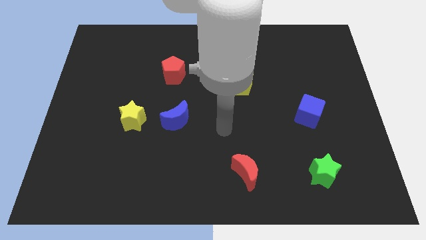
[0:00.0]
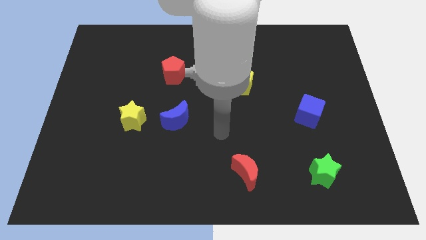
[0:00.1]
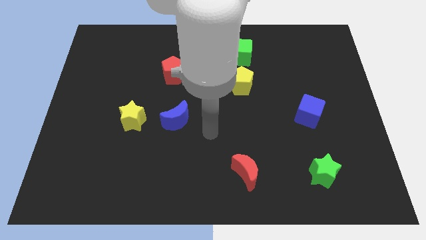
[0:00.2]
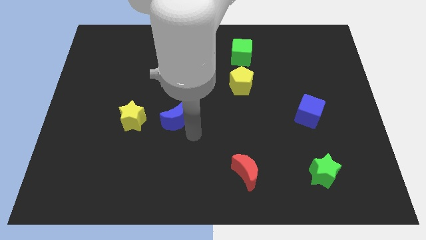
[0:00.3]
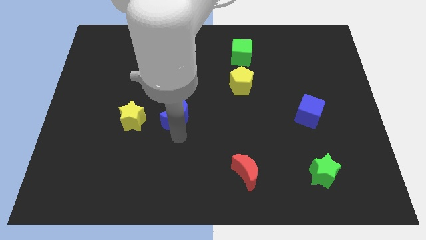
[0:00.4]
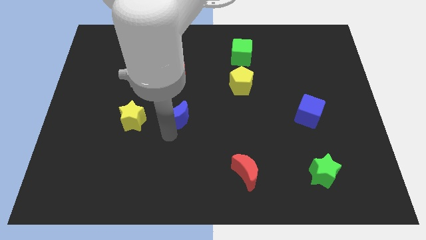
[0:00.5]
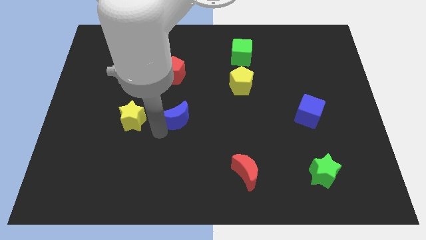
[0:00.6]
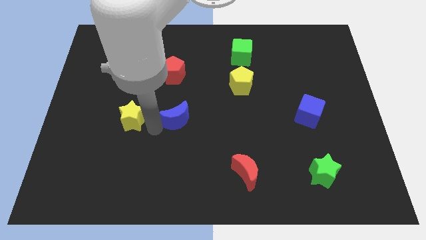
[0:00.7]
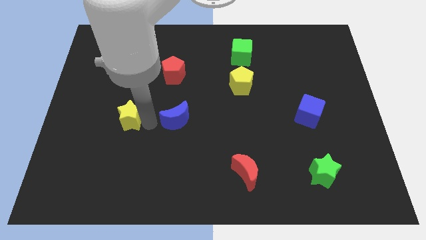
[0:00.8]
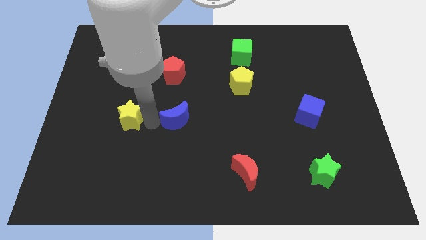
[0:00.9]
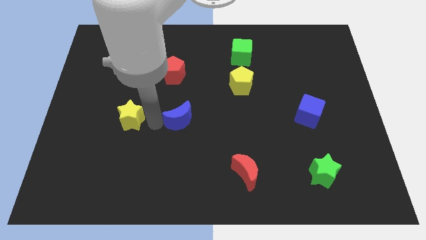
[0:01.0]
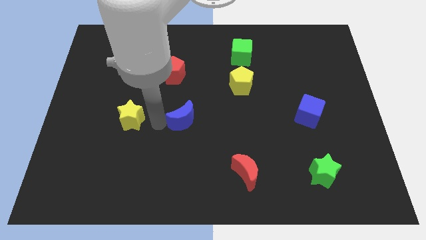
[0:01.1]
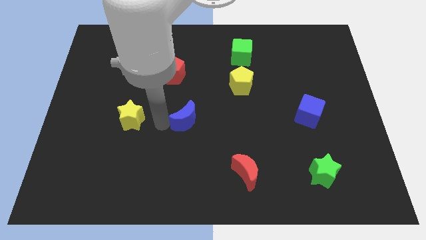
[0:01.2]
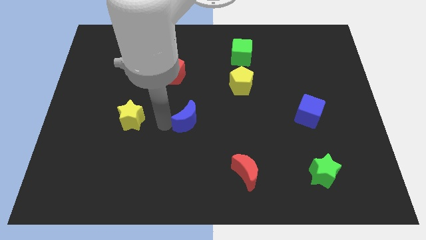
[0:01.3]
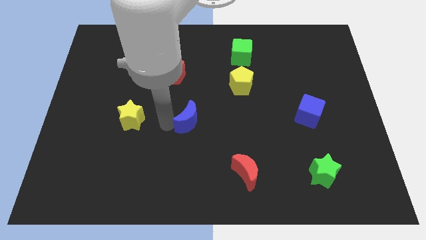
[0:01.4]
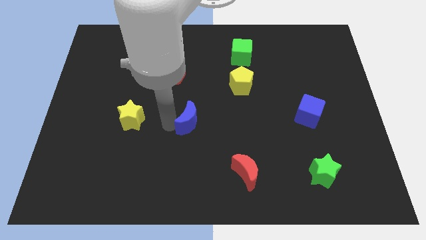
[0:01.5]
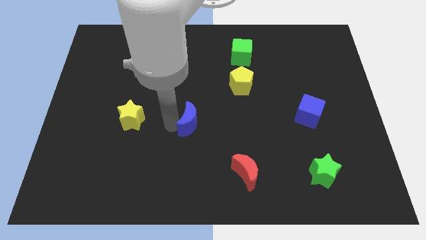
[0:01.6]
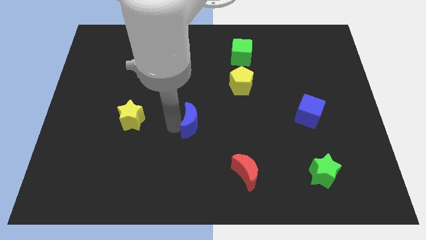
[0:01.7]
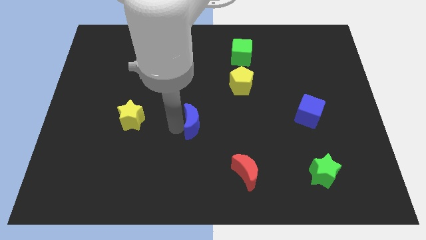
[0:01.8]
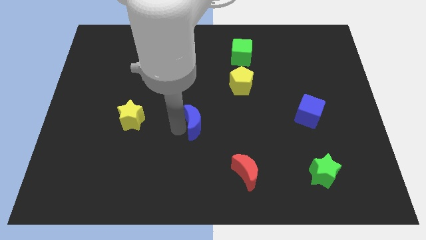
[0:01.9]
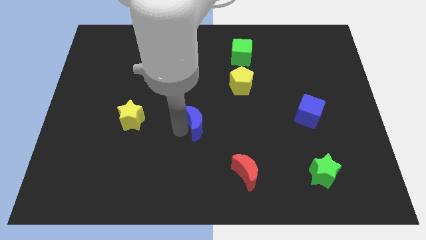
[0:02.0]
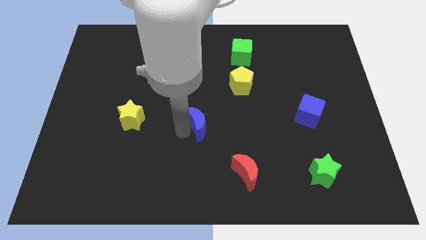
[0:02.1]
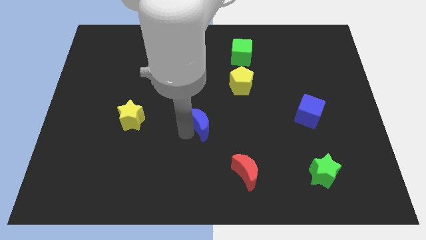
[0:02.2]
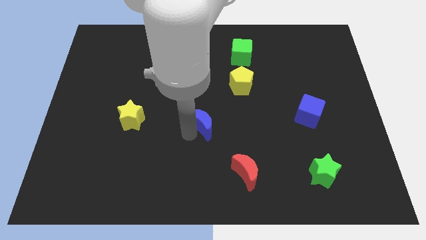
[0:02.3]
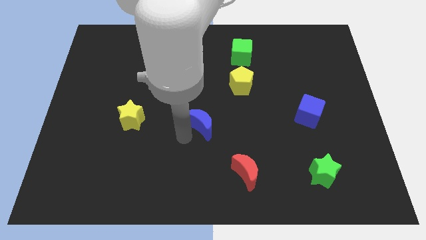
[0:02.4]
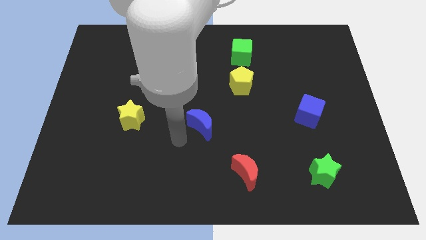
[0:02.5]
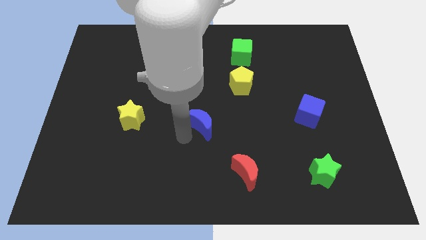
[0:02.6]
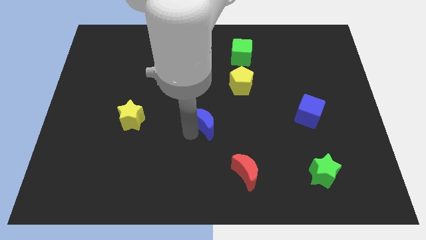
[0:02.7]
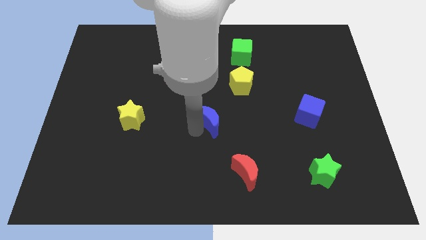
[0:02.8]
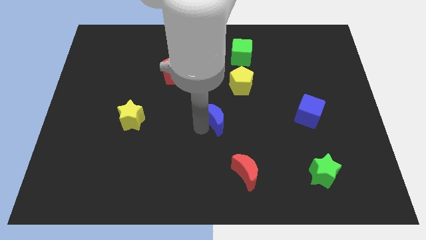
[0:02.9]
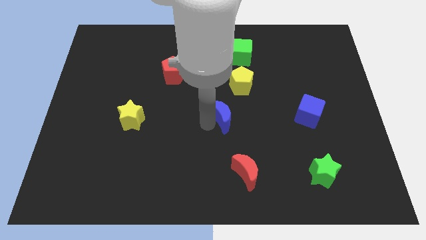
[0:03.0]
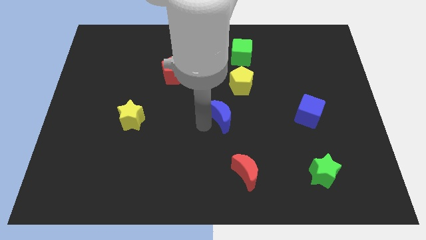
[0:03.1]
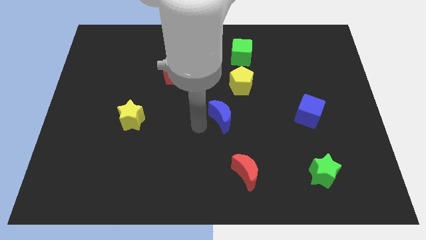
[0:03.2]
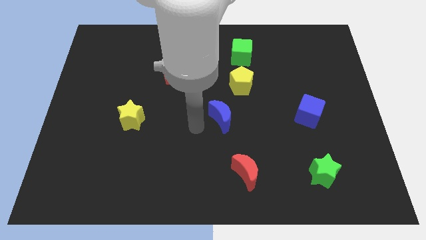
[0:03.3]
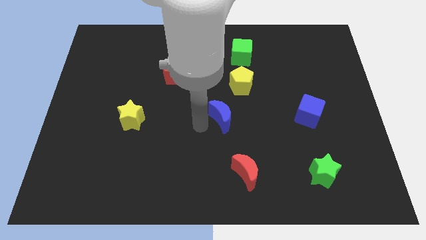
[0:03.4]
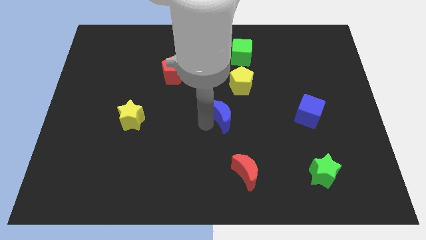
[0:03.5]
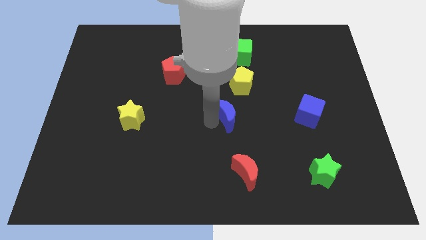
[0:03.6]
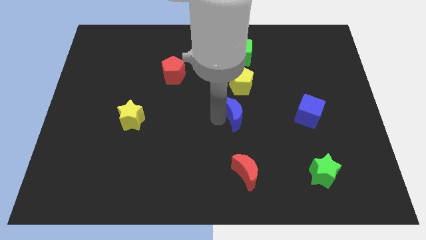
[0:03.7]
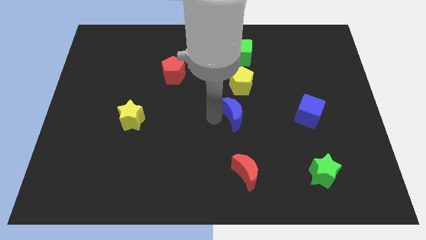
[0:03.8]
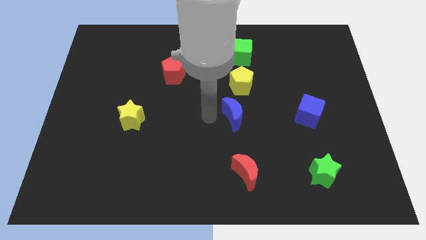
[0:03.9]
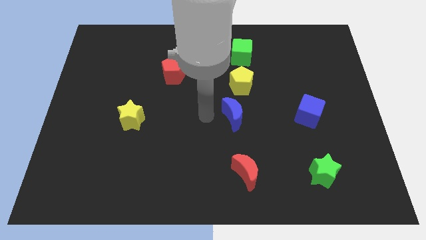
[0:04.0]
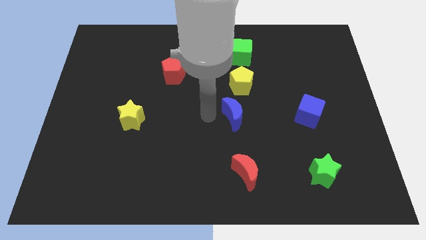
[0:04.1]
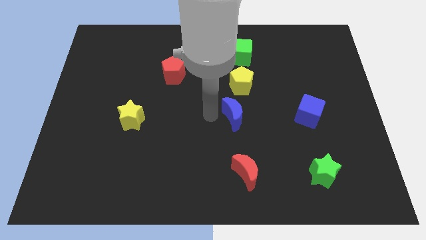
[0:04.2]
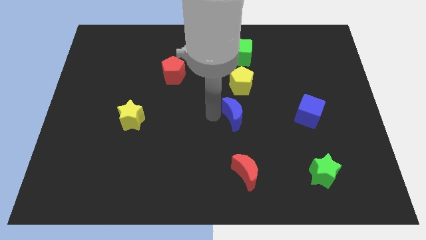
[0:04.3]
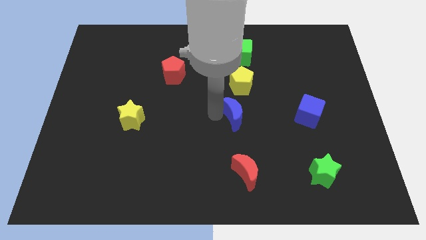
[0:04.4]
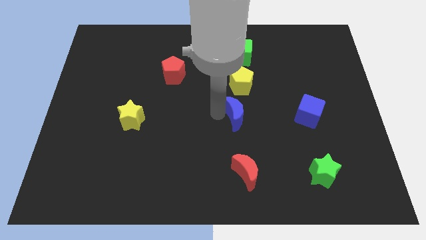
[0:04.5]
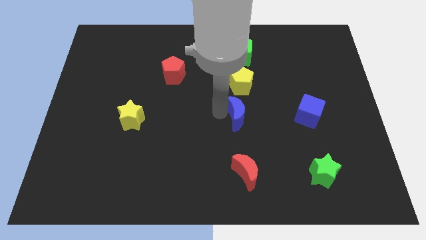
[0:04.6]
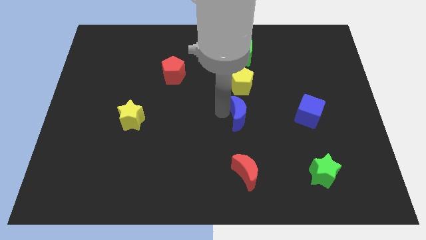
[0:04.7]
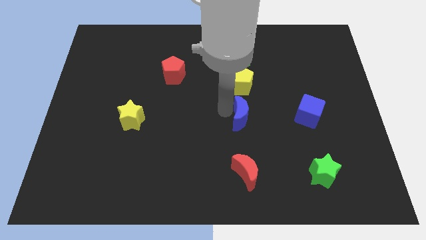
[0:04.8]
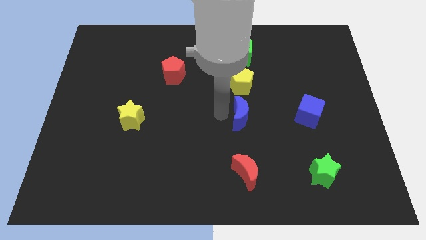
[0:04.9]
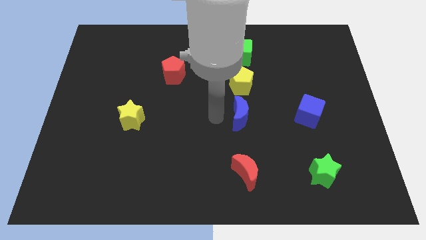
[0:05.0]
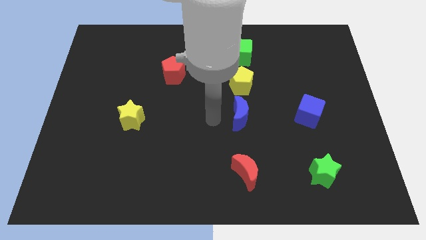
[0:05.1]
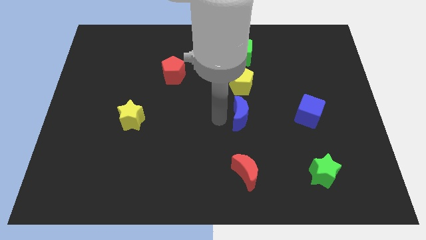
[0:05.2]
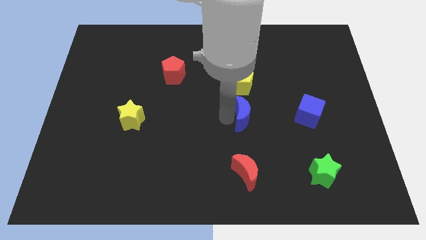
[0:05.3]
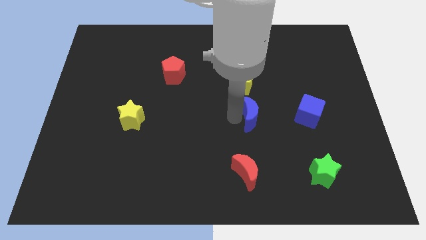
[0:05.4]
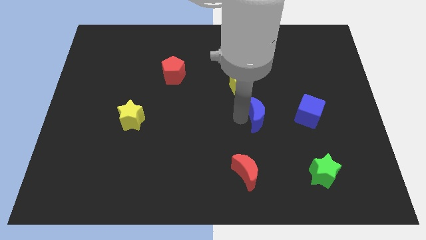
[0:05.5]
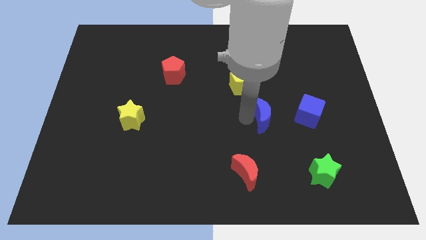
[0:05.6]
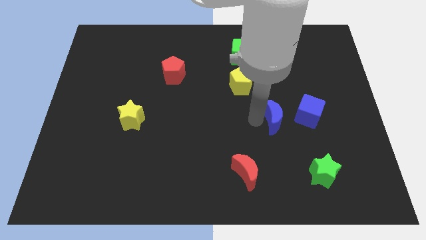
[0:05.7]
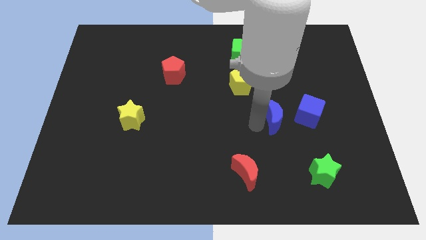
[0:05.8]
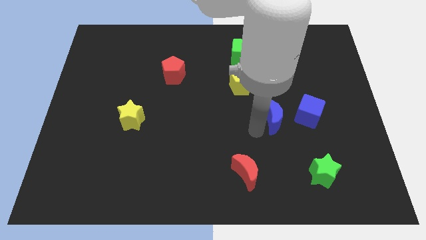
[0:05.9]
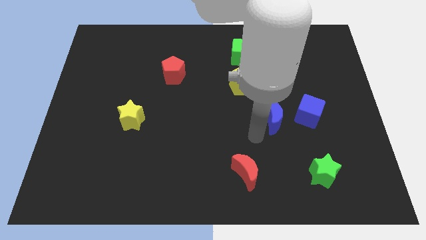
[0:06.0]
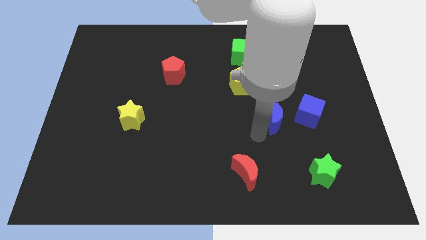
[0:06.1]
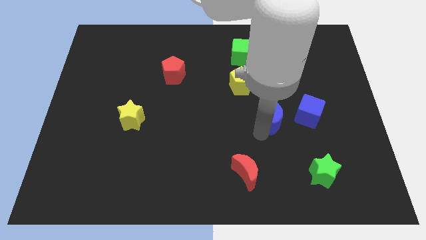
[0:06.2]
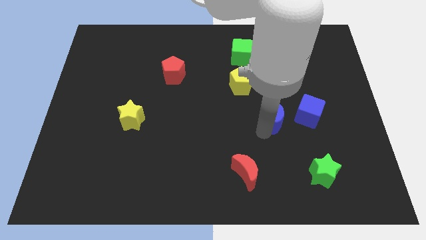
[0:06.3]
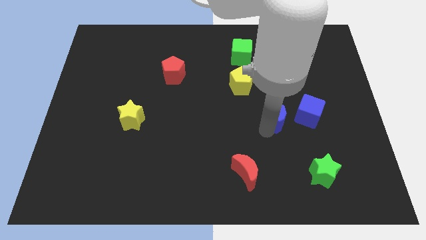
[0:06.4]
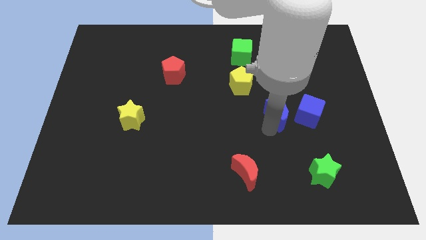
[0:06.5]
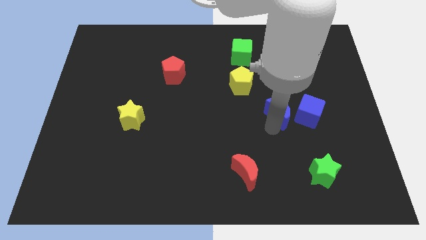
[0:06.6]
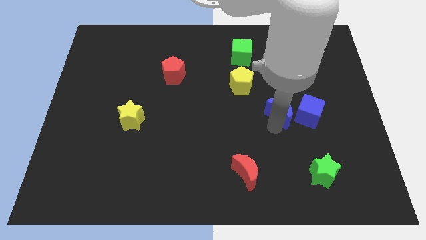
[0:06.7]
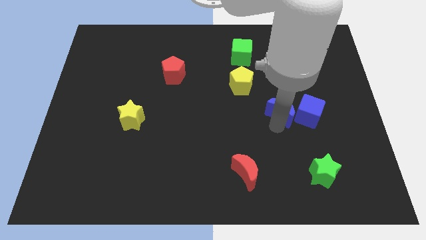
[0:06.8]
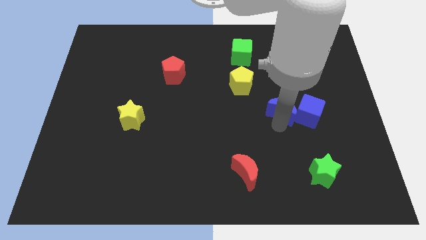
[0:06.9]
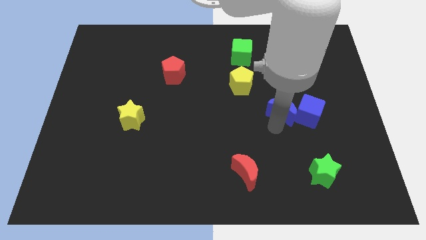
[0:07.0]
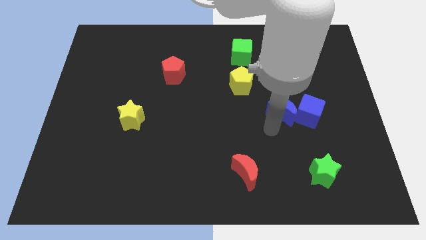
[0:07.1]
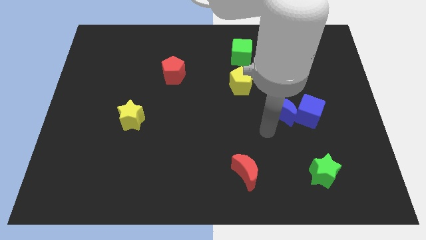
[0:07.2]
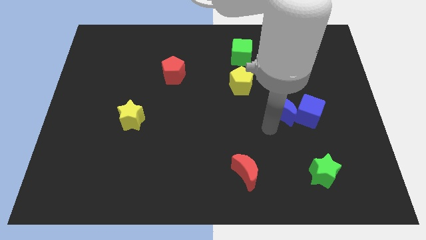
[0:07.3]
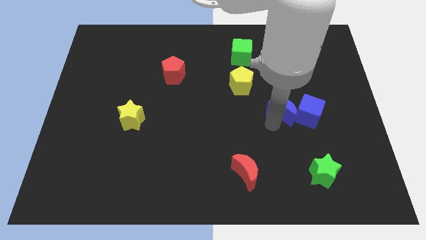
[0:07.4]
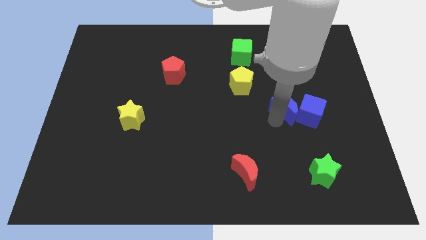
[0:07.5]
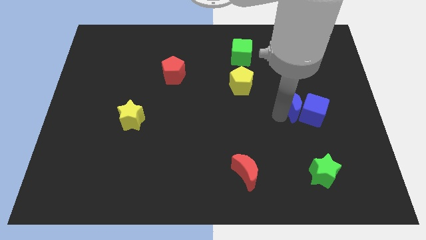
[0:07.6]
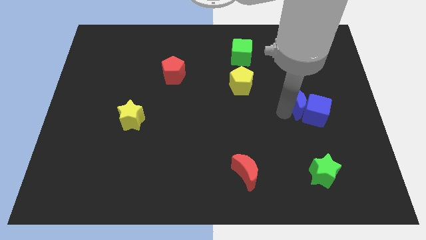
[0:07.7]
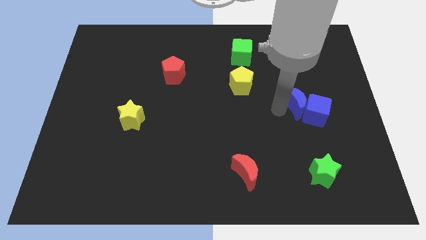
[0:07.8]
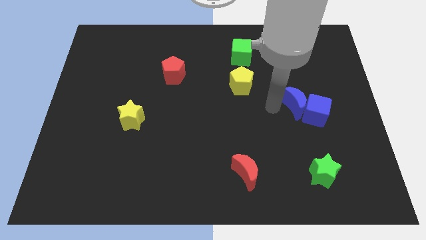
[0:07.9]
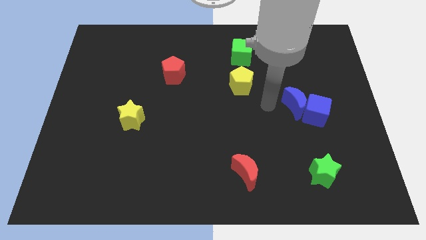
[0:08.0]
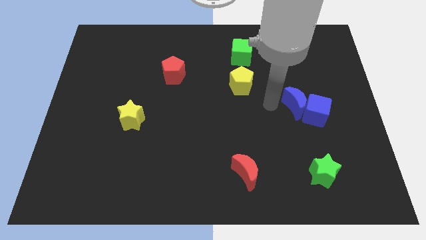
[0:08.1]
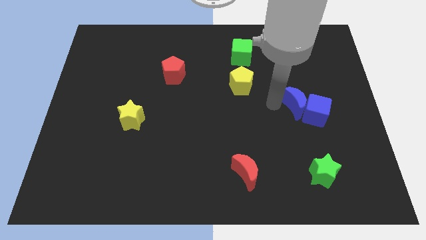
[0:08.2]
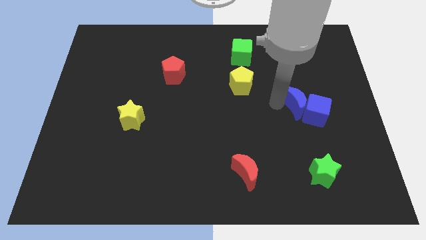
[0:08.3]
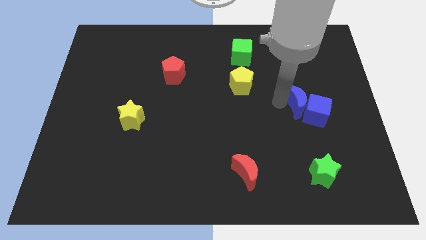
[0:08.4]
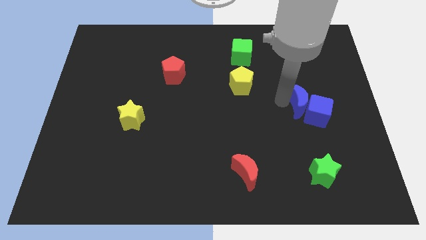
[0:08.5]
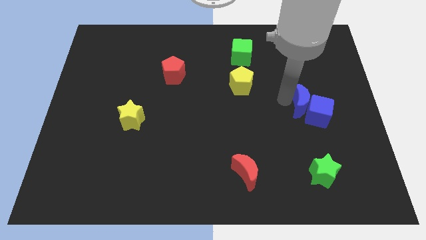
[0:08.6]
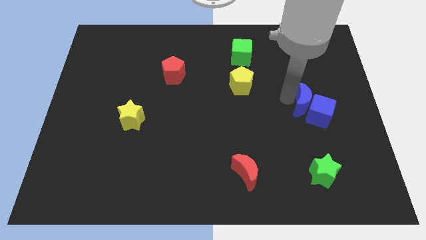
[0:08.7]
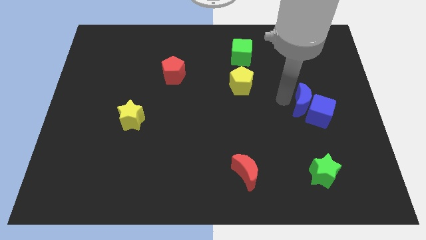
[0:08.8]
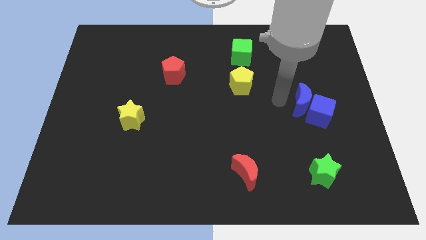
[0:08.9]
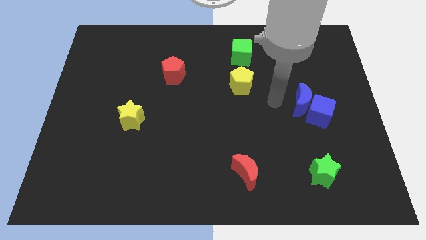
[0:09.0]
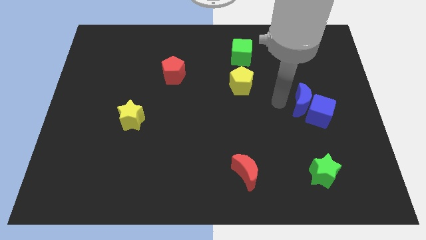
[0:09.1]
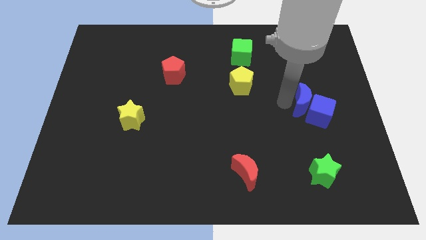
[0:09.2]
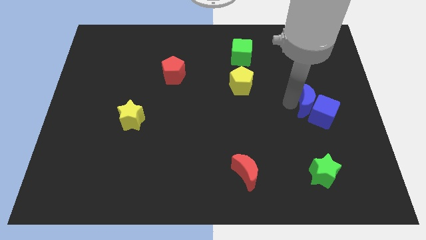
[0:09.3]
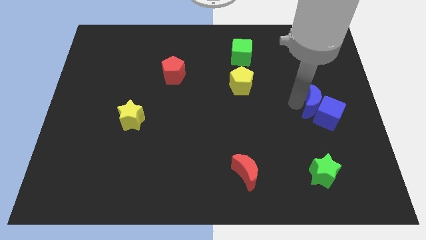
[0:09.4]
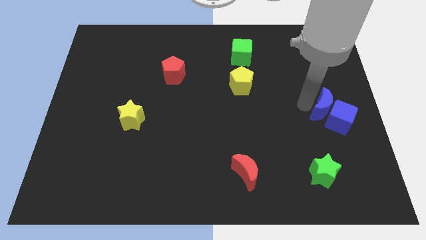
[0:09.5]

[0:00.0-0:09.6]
put the blue moon to the right side
